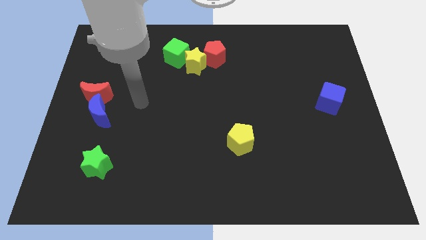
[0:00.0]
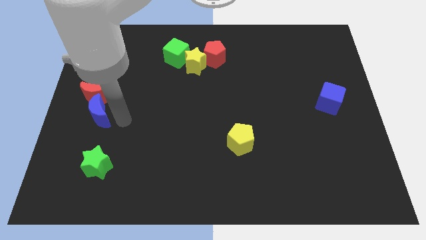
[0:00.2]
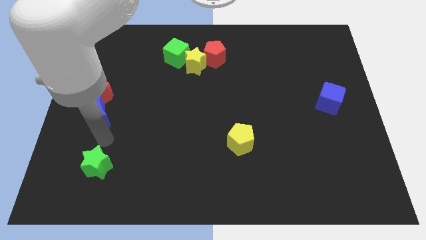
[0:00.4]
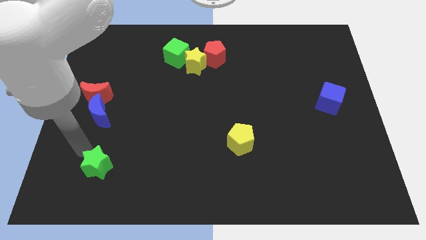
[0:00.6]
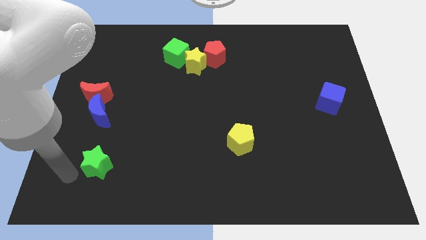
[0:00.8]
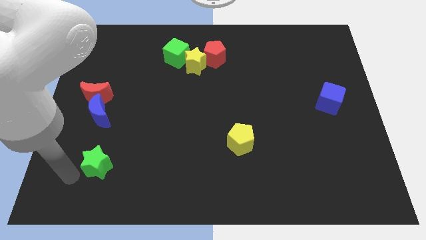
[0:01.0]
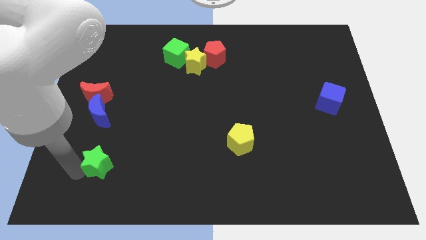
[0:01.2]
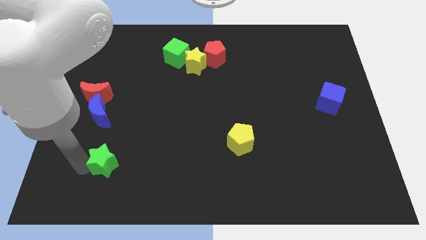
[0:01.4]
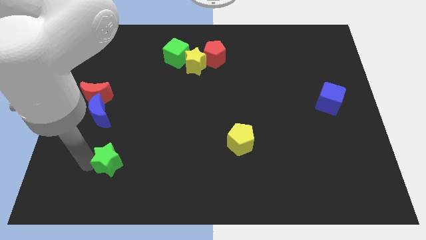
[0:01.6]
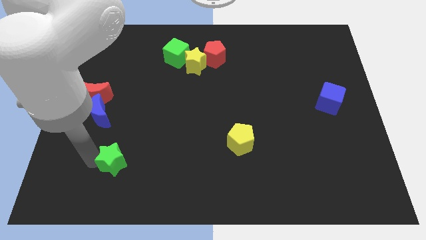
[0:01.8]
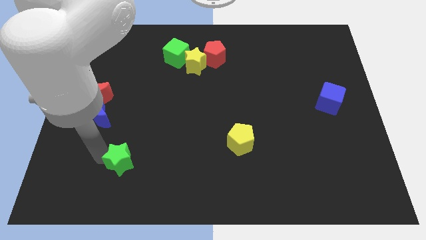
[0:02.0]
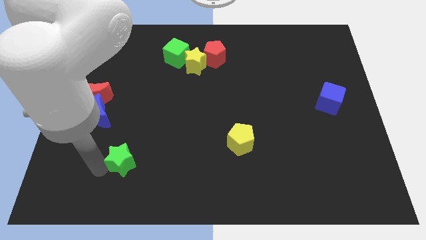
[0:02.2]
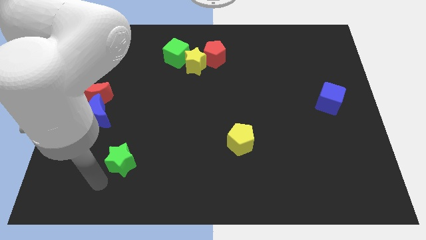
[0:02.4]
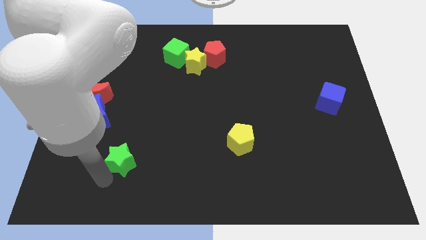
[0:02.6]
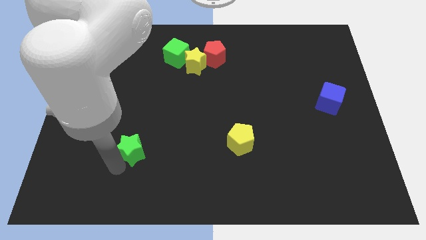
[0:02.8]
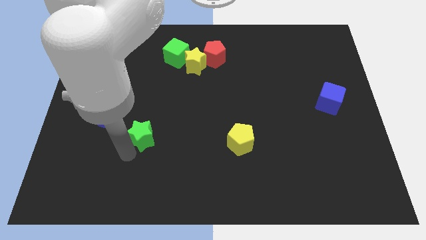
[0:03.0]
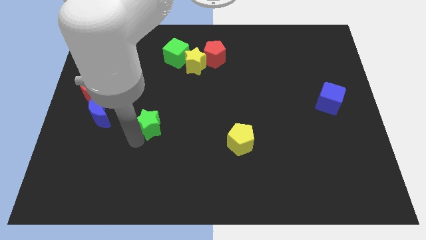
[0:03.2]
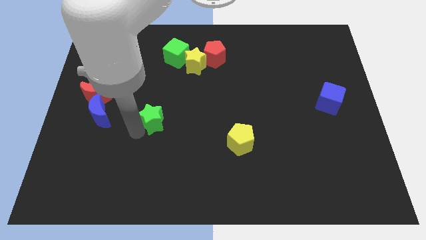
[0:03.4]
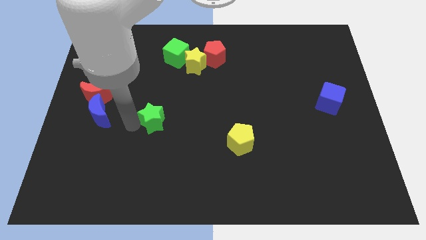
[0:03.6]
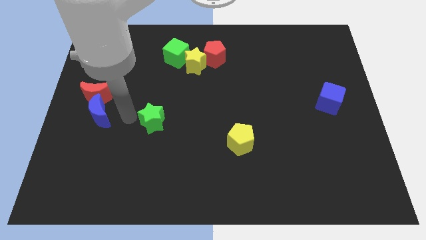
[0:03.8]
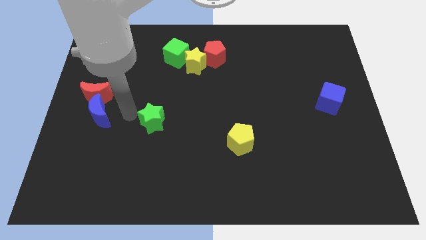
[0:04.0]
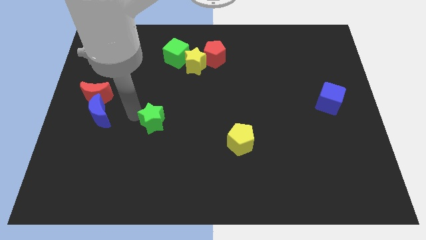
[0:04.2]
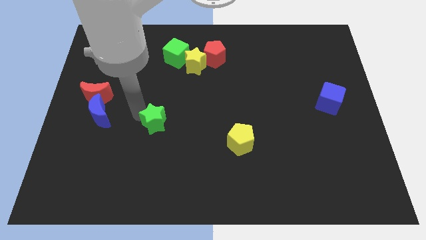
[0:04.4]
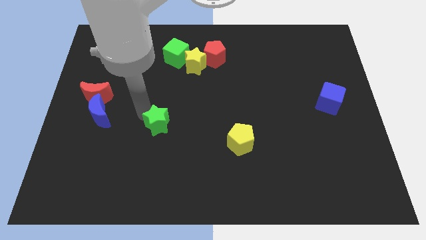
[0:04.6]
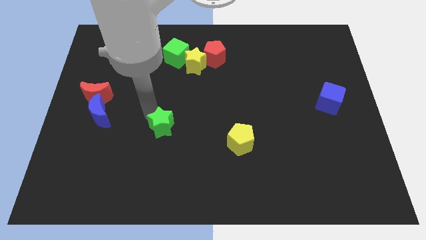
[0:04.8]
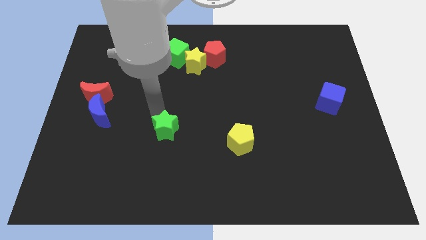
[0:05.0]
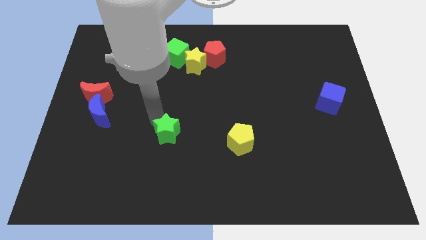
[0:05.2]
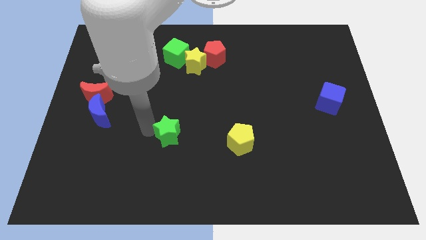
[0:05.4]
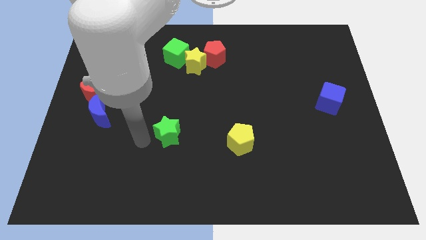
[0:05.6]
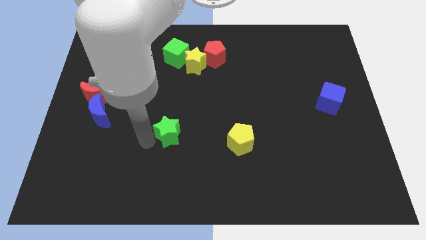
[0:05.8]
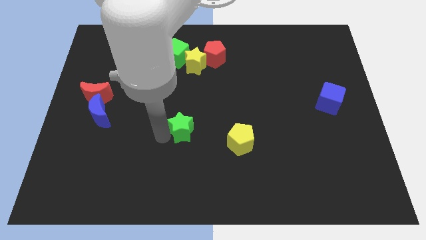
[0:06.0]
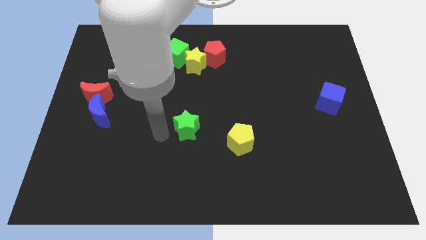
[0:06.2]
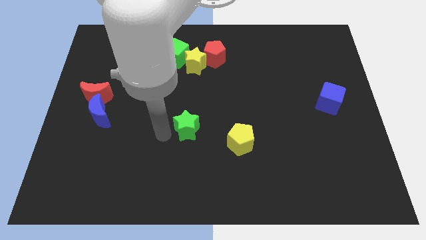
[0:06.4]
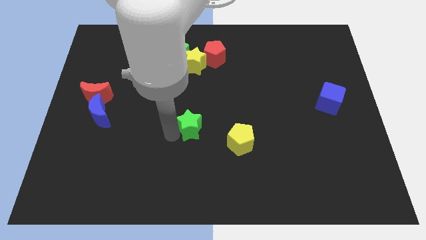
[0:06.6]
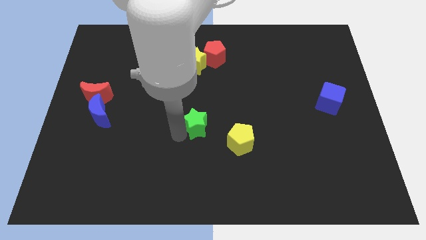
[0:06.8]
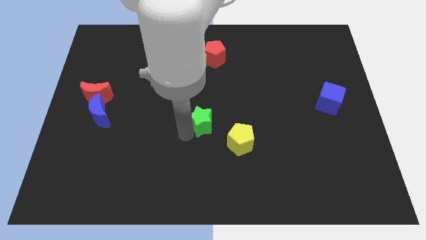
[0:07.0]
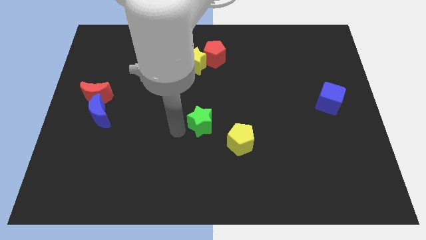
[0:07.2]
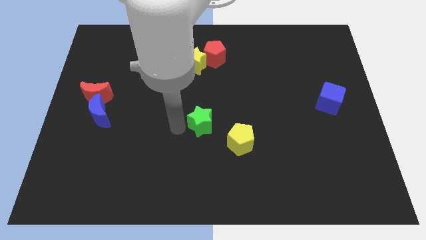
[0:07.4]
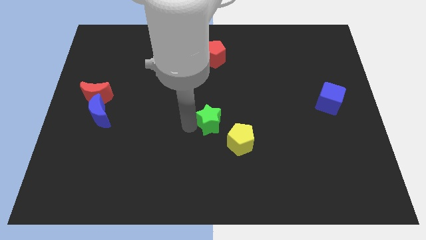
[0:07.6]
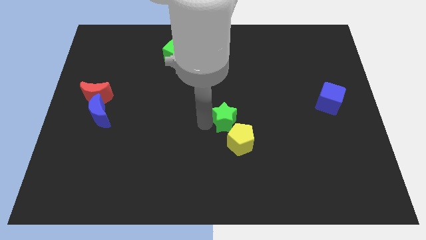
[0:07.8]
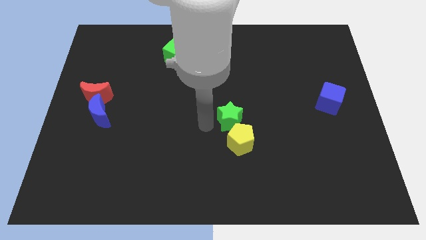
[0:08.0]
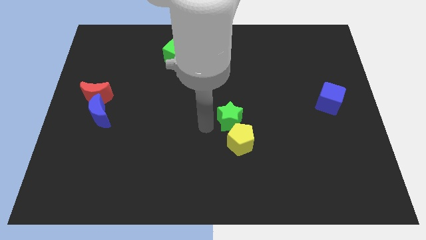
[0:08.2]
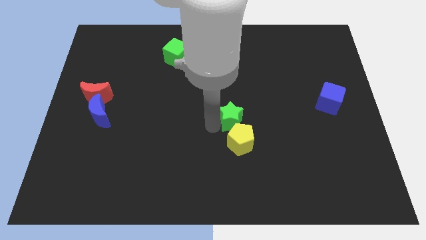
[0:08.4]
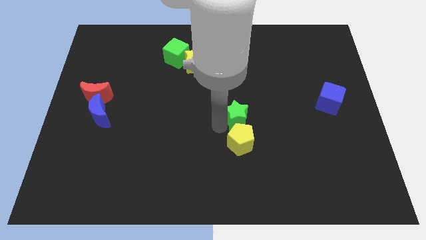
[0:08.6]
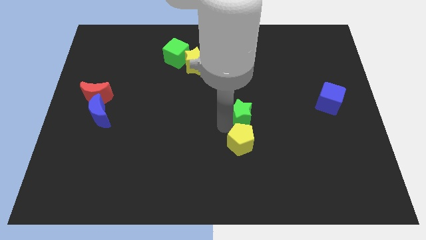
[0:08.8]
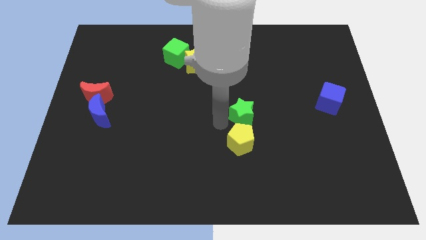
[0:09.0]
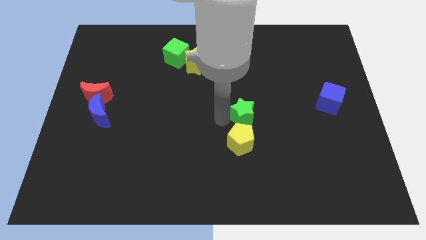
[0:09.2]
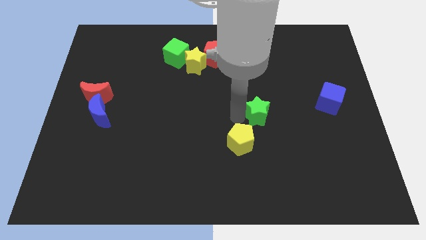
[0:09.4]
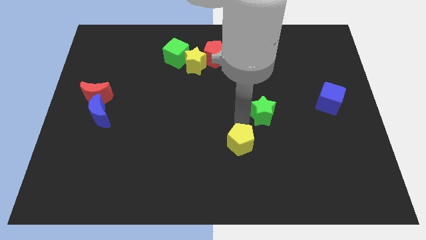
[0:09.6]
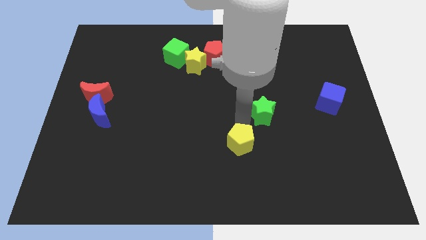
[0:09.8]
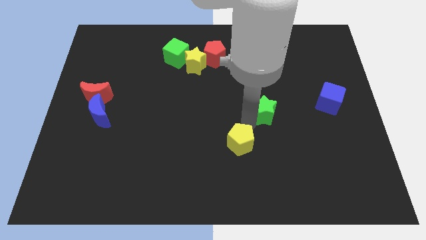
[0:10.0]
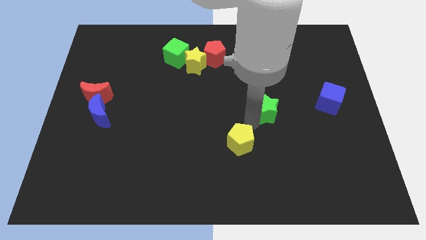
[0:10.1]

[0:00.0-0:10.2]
push the green star to the left side of the blue cube

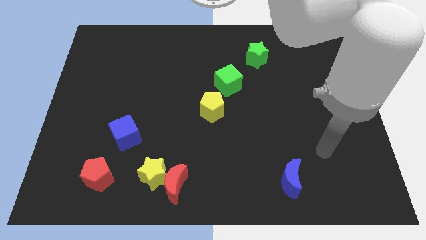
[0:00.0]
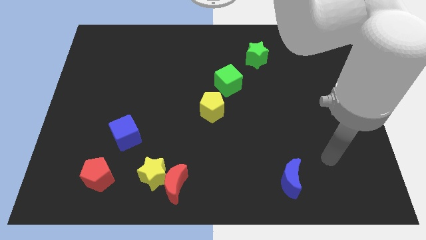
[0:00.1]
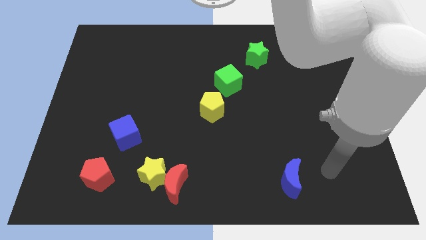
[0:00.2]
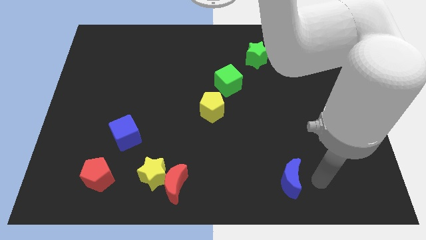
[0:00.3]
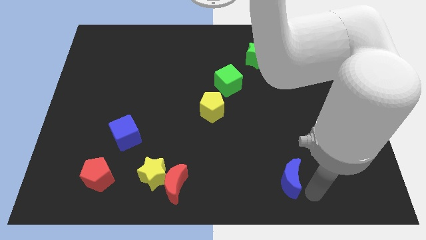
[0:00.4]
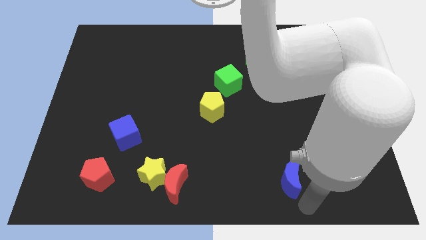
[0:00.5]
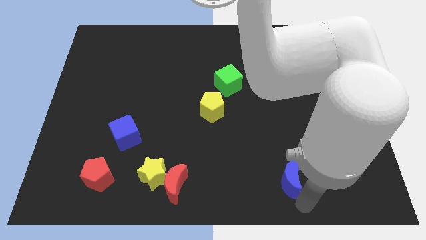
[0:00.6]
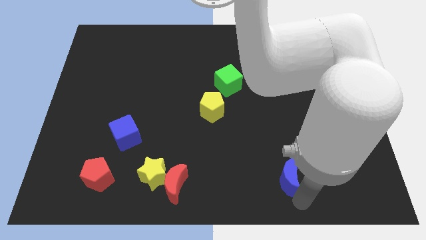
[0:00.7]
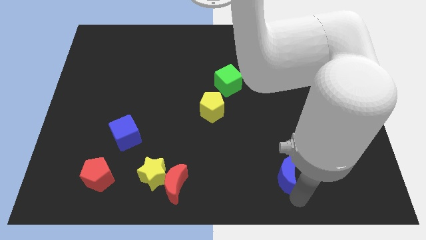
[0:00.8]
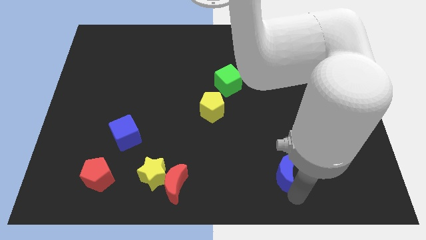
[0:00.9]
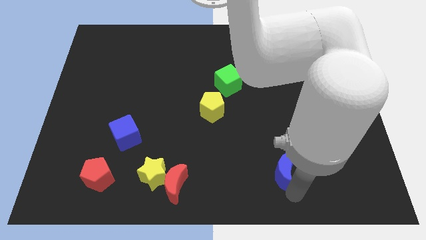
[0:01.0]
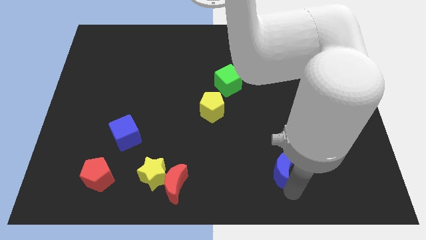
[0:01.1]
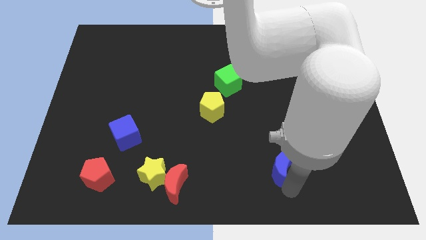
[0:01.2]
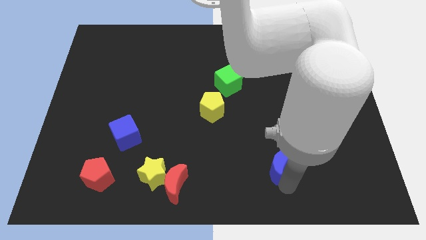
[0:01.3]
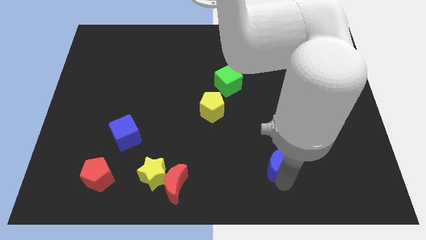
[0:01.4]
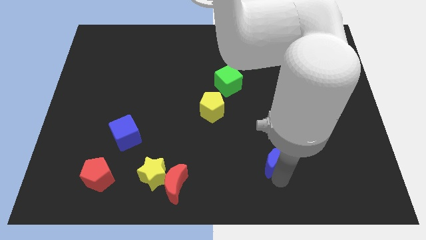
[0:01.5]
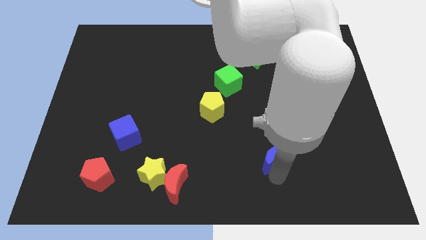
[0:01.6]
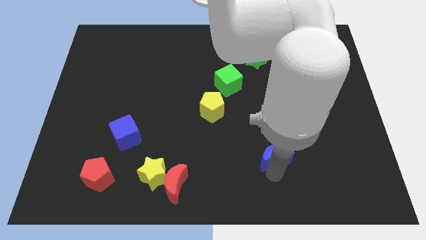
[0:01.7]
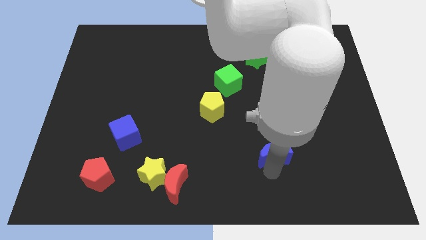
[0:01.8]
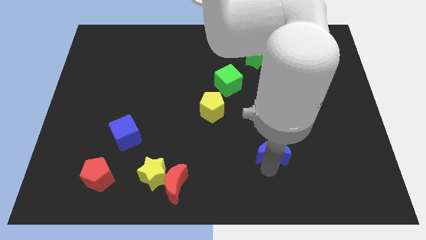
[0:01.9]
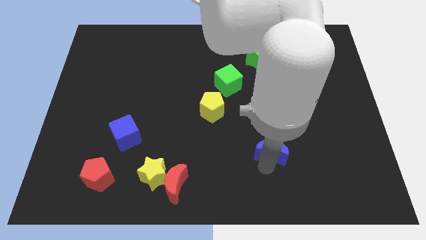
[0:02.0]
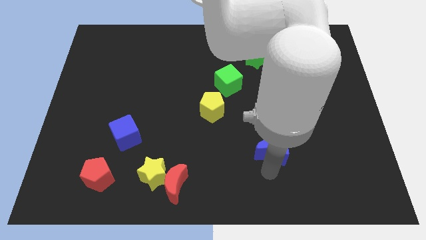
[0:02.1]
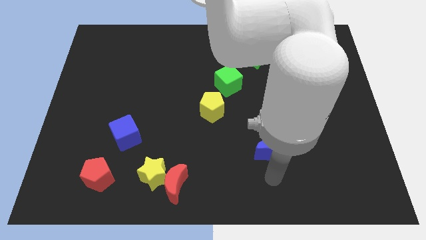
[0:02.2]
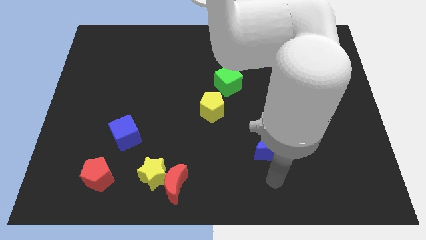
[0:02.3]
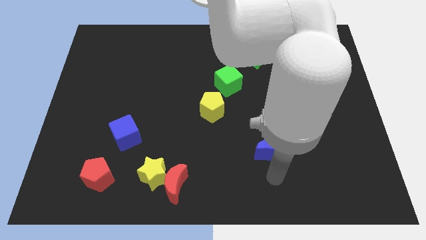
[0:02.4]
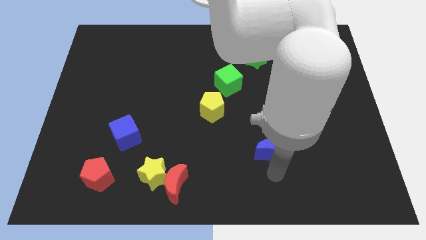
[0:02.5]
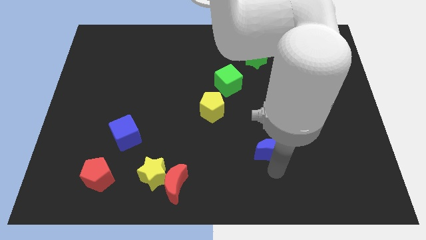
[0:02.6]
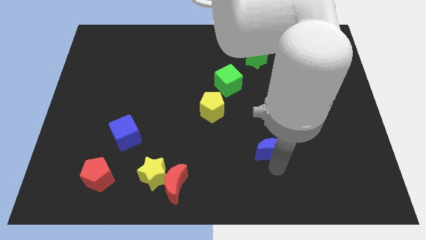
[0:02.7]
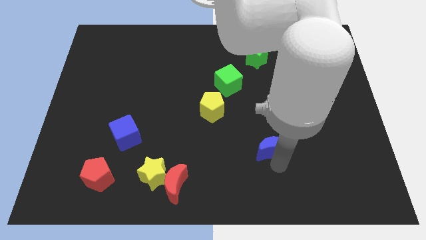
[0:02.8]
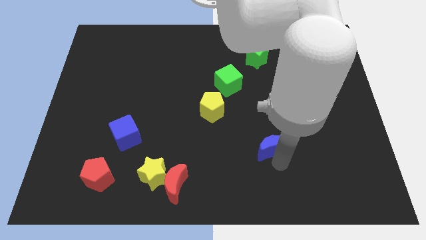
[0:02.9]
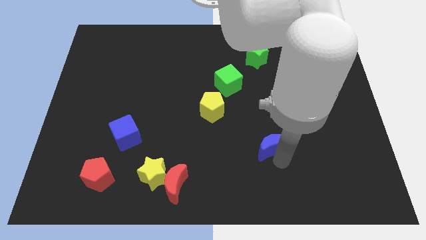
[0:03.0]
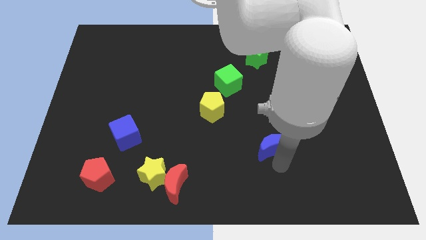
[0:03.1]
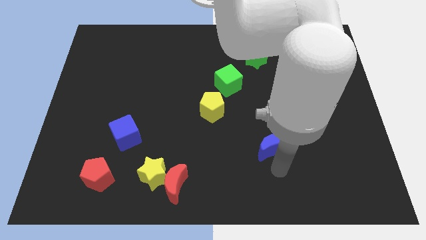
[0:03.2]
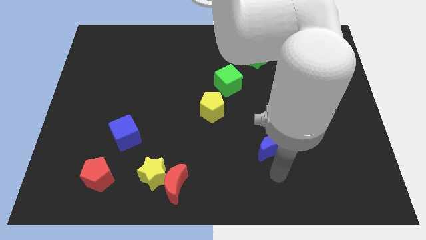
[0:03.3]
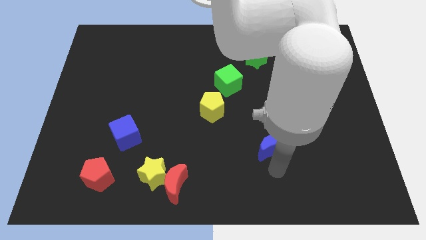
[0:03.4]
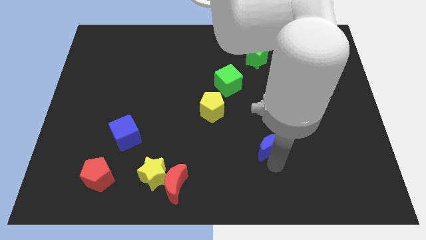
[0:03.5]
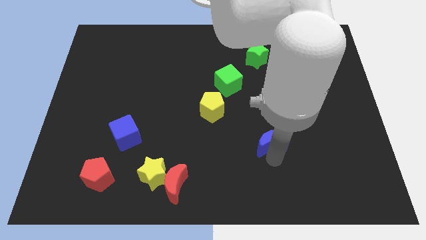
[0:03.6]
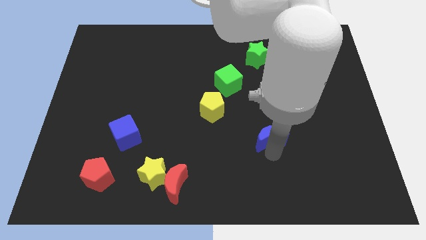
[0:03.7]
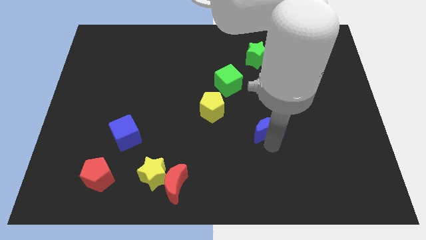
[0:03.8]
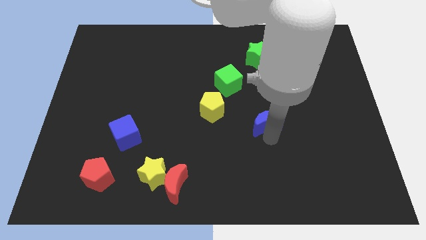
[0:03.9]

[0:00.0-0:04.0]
slide the blue moon to the right side of the yellow pentagon
